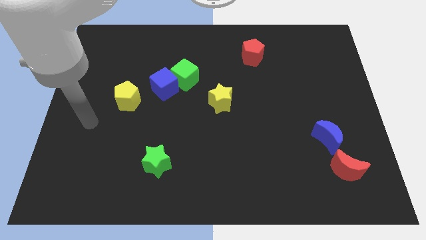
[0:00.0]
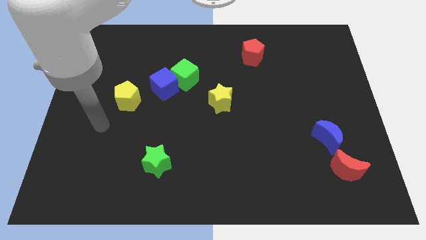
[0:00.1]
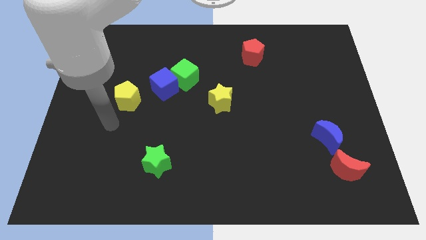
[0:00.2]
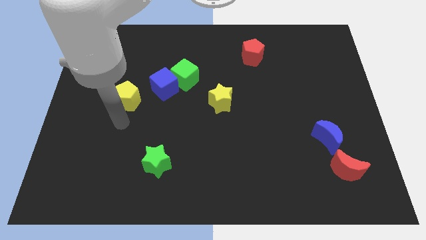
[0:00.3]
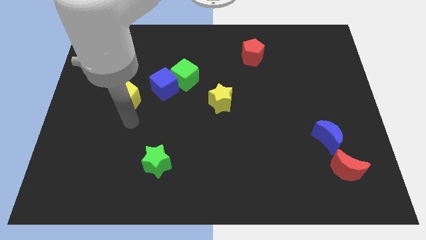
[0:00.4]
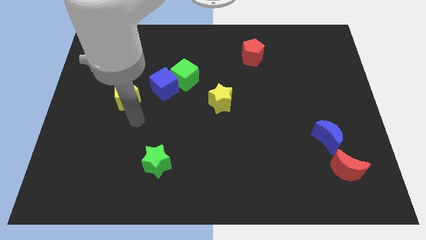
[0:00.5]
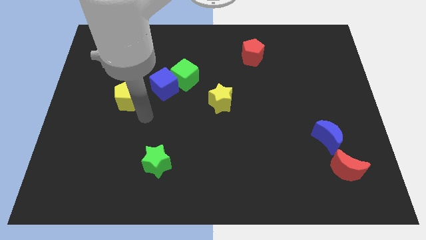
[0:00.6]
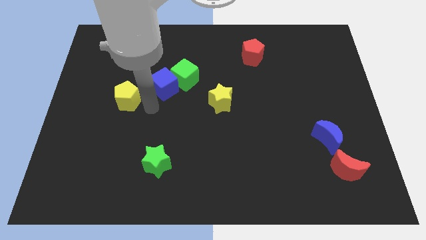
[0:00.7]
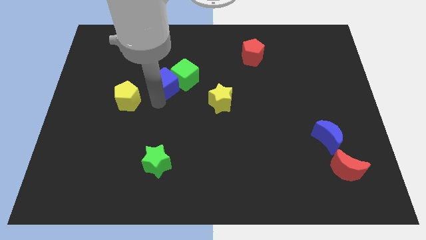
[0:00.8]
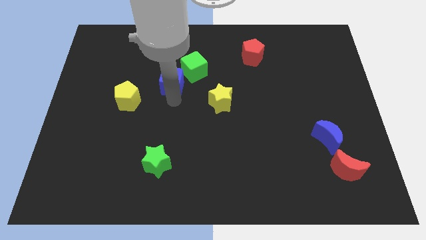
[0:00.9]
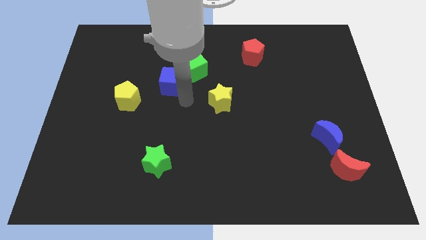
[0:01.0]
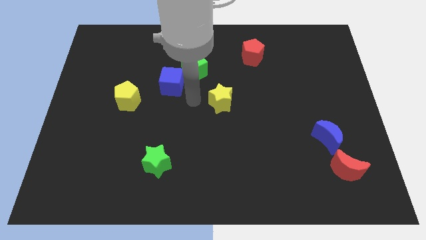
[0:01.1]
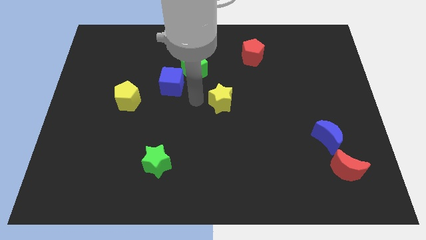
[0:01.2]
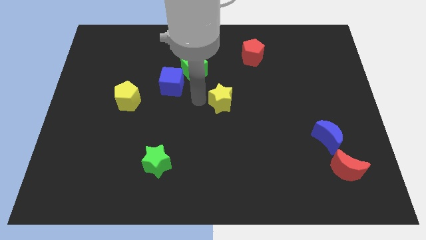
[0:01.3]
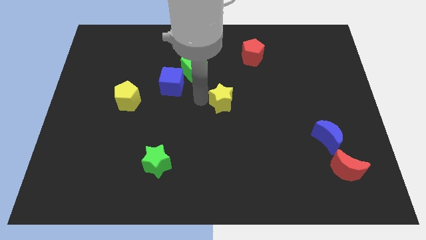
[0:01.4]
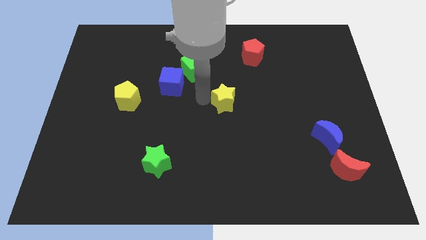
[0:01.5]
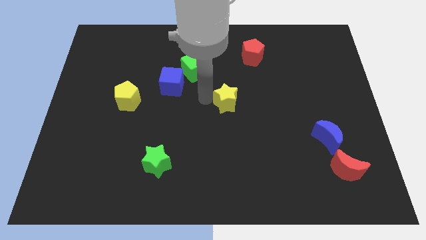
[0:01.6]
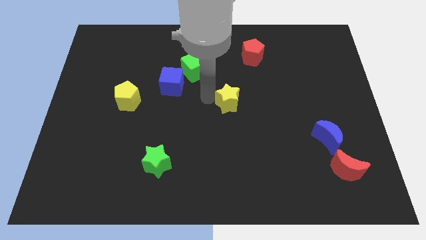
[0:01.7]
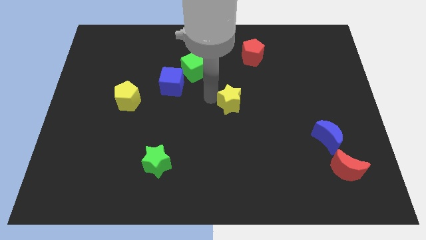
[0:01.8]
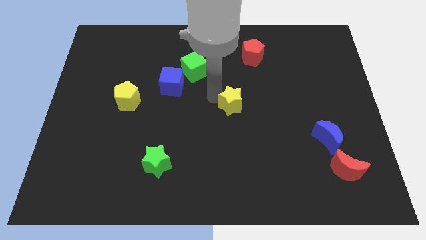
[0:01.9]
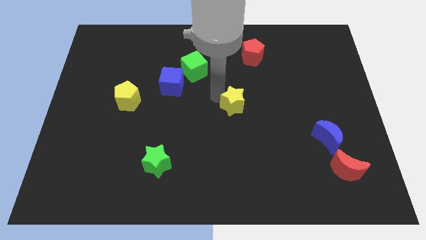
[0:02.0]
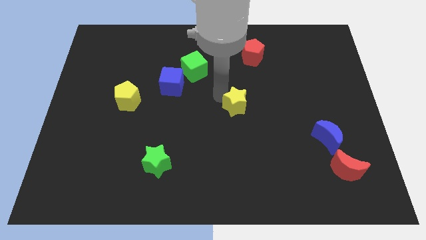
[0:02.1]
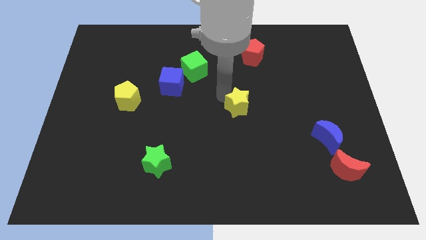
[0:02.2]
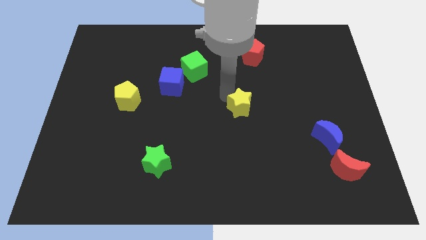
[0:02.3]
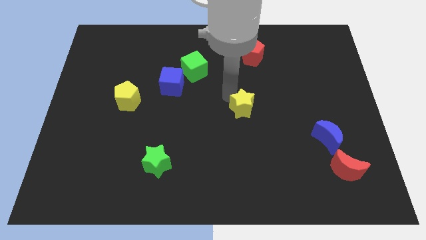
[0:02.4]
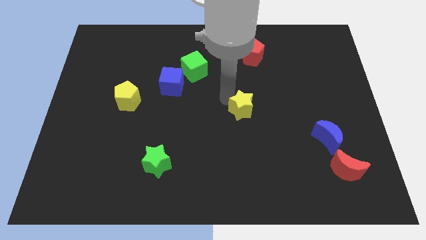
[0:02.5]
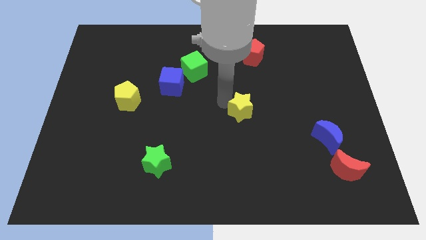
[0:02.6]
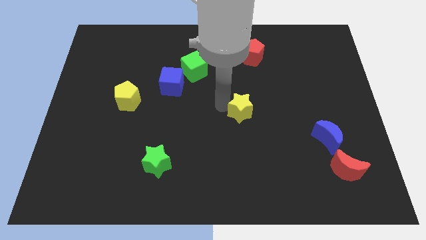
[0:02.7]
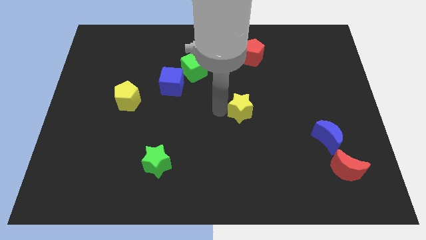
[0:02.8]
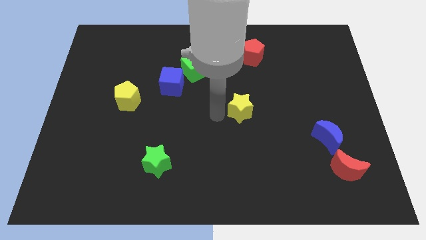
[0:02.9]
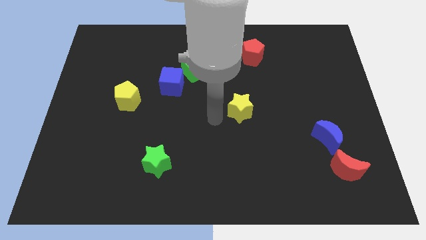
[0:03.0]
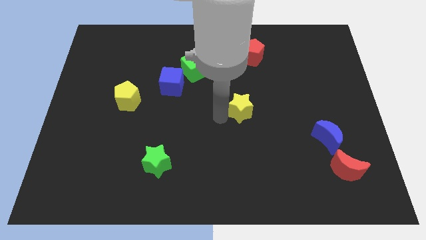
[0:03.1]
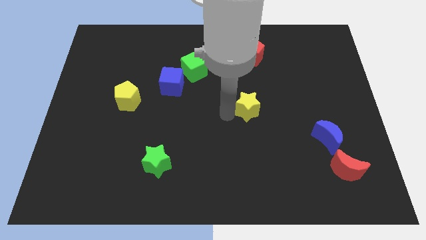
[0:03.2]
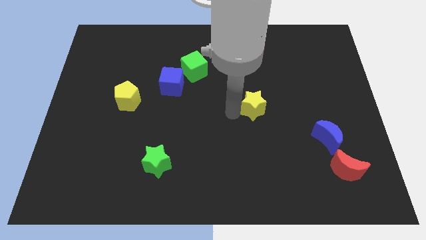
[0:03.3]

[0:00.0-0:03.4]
push the yellow star to the right slightly

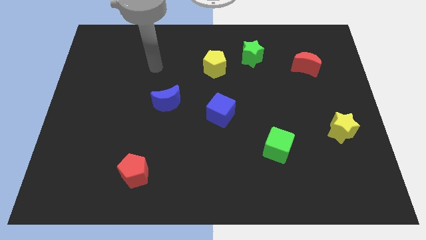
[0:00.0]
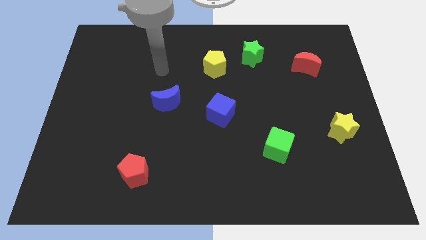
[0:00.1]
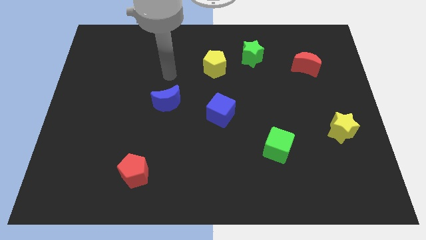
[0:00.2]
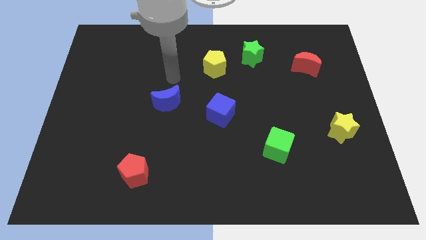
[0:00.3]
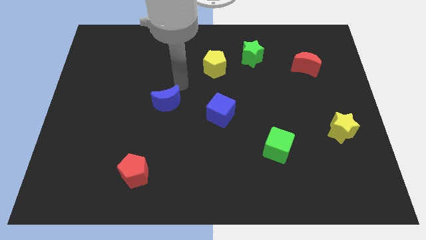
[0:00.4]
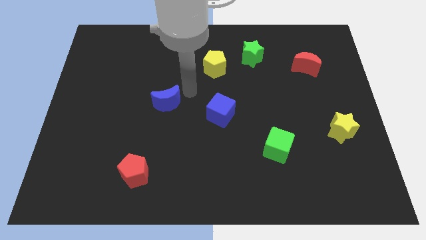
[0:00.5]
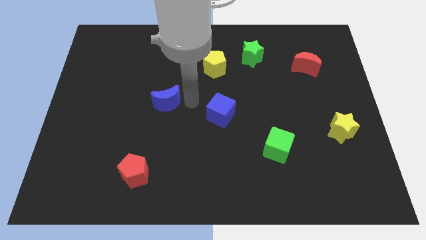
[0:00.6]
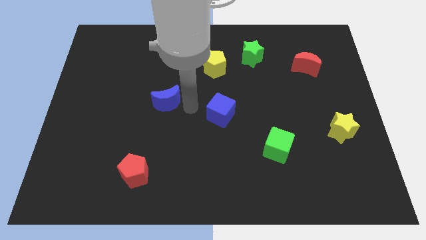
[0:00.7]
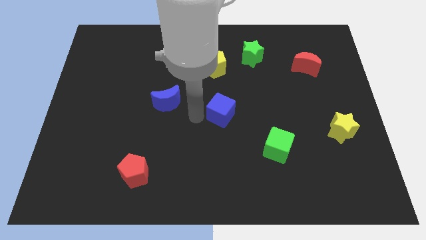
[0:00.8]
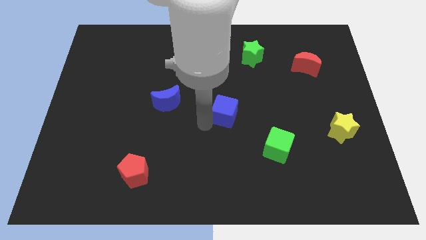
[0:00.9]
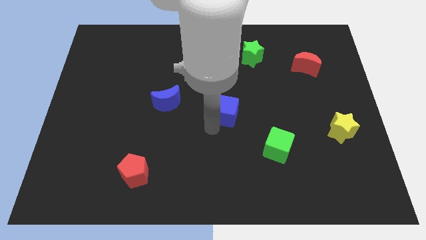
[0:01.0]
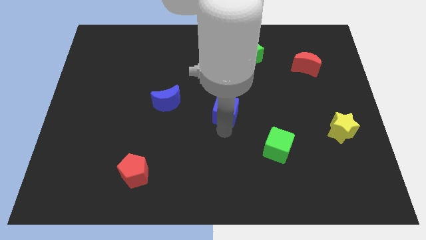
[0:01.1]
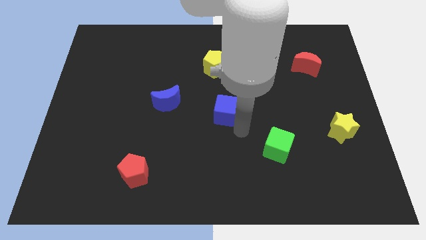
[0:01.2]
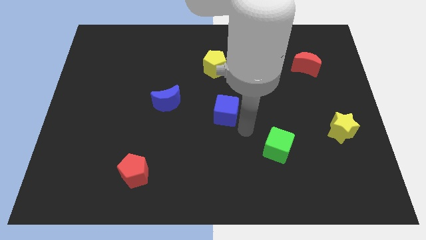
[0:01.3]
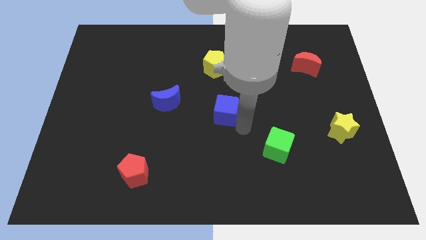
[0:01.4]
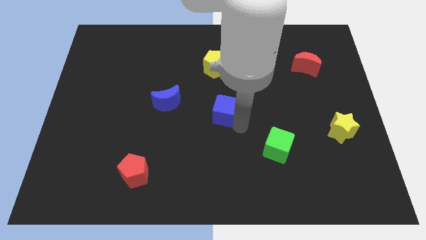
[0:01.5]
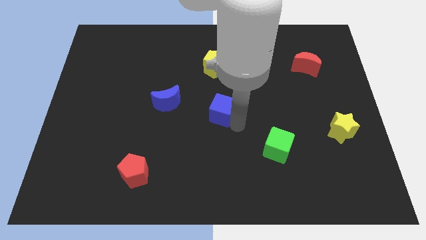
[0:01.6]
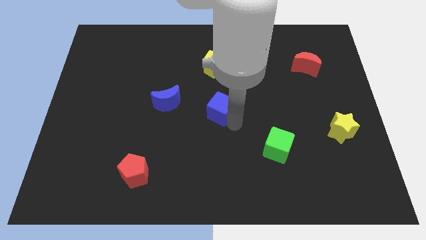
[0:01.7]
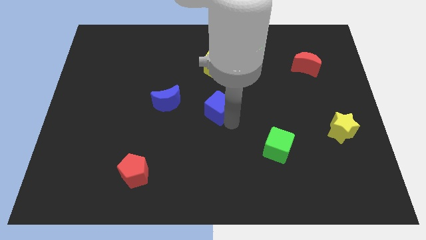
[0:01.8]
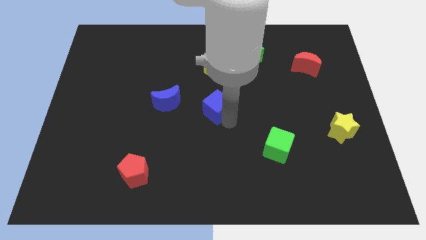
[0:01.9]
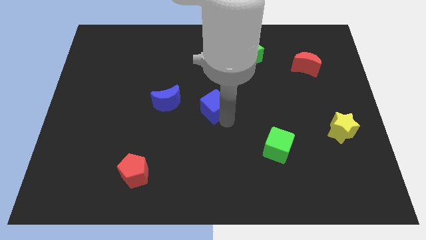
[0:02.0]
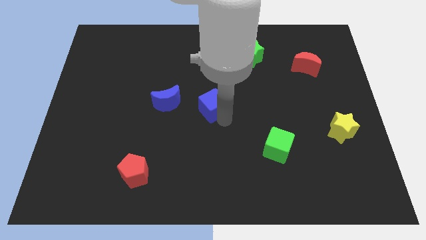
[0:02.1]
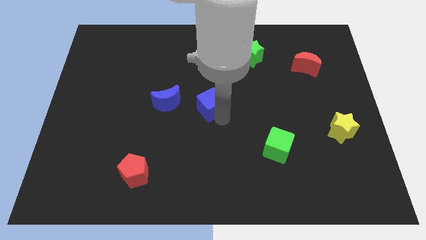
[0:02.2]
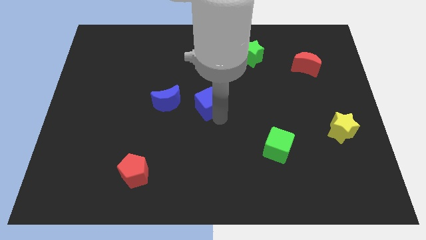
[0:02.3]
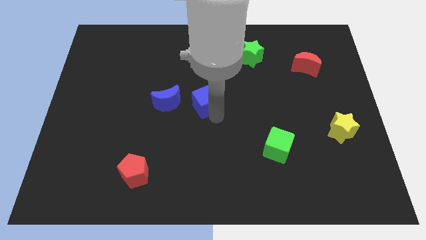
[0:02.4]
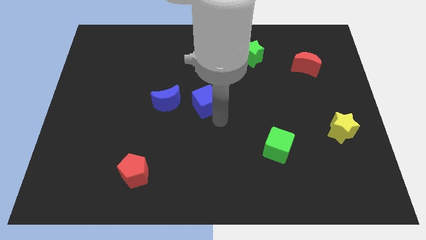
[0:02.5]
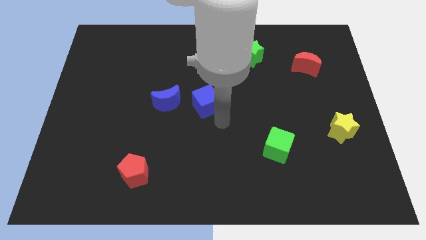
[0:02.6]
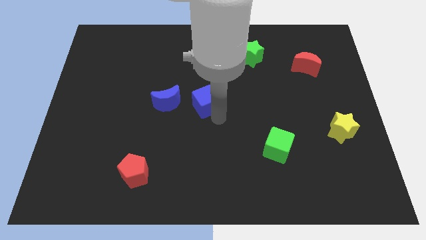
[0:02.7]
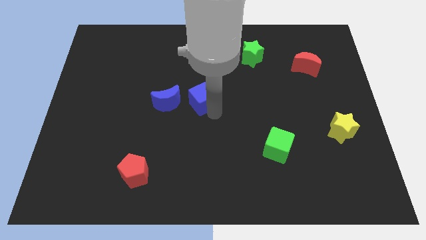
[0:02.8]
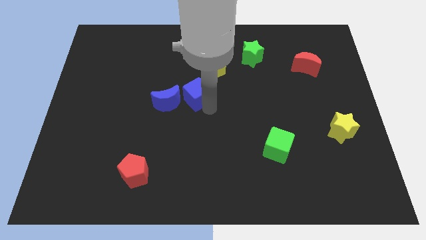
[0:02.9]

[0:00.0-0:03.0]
slightly push the blue cube up and then to the left

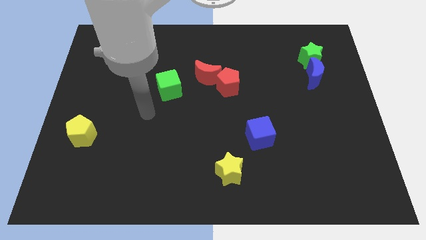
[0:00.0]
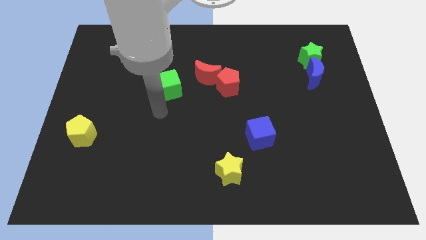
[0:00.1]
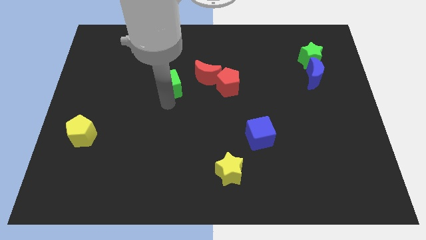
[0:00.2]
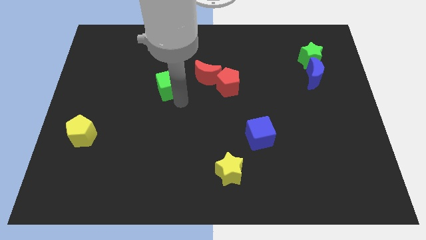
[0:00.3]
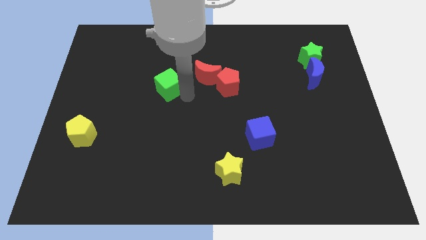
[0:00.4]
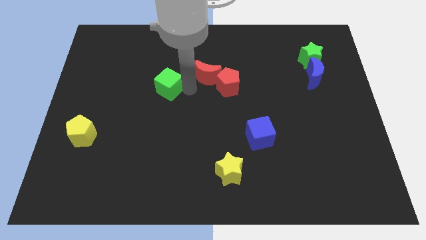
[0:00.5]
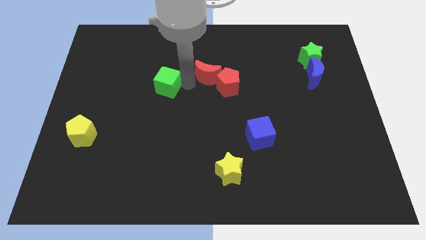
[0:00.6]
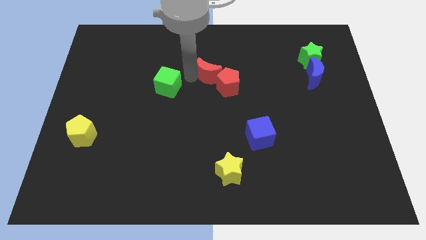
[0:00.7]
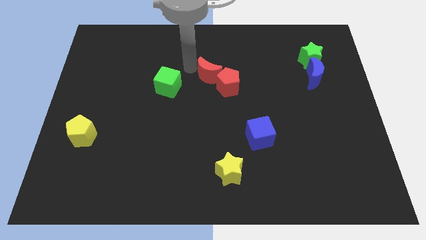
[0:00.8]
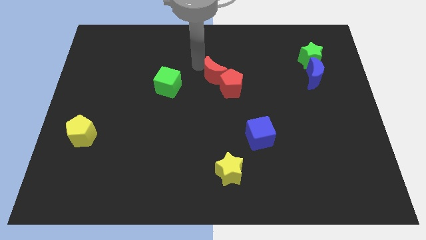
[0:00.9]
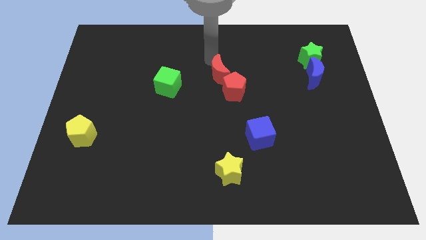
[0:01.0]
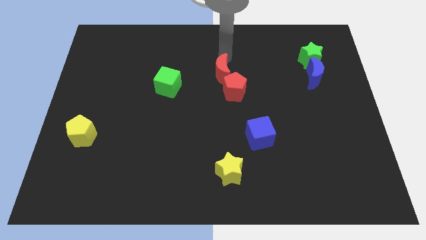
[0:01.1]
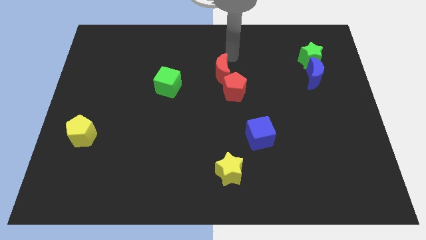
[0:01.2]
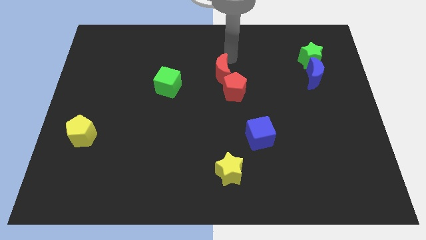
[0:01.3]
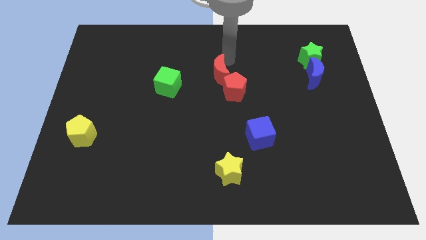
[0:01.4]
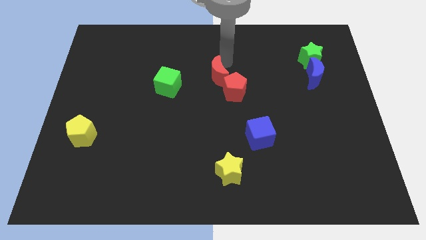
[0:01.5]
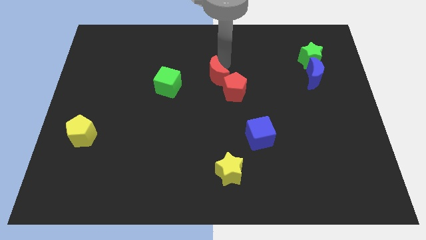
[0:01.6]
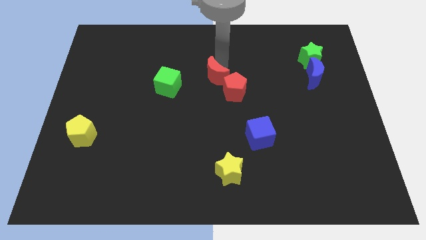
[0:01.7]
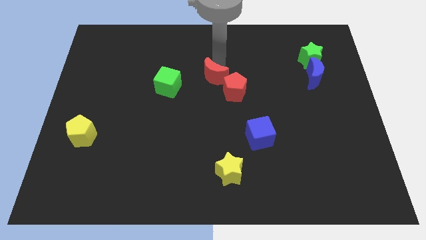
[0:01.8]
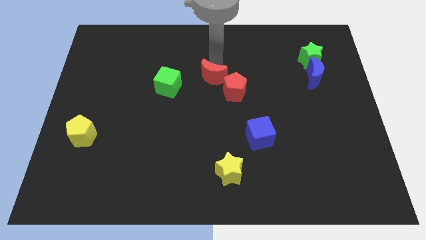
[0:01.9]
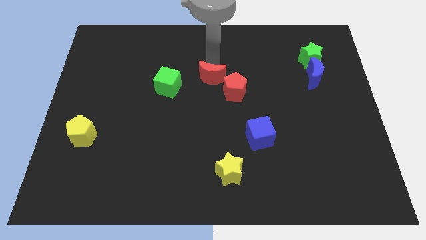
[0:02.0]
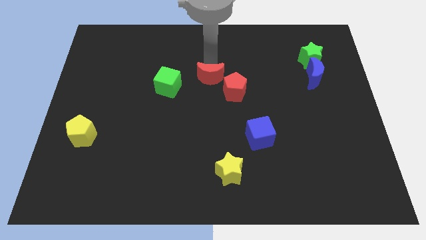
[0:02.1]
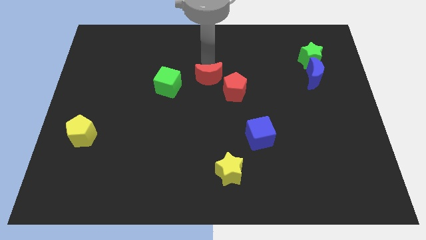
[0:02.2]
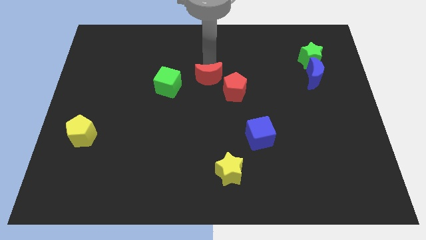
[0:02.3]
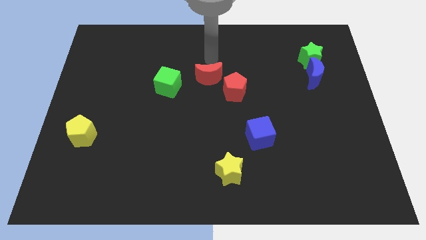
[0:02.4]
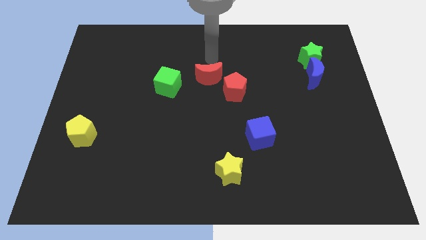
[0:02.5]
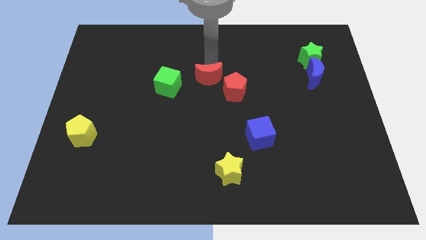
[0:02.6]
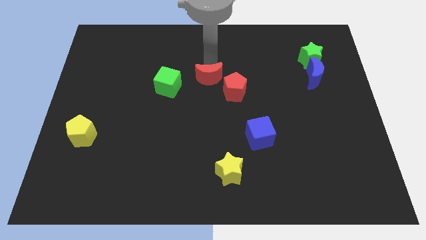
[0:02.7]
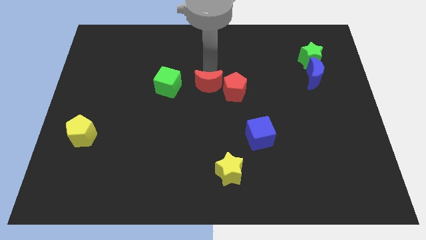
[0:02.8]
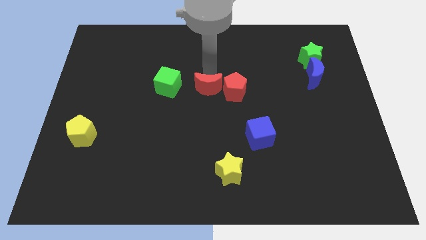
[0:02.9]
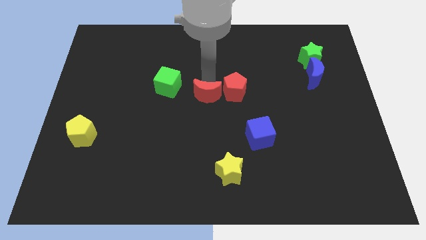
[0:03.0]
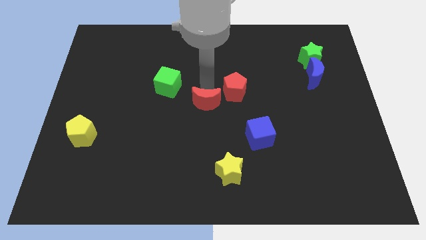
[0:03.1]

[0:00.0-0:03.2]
move the red moon somewhat down
